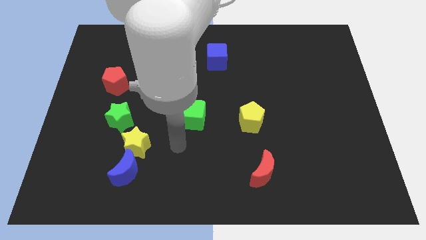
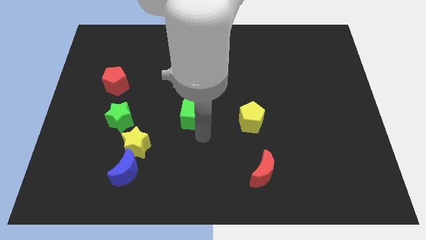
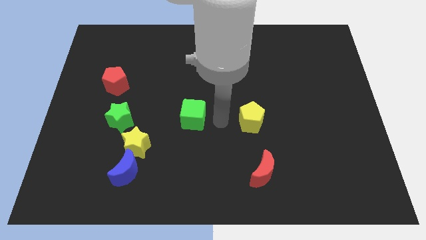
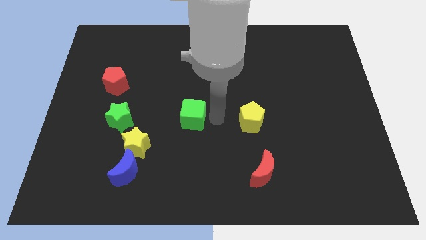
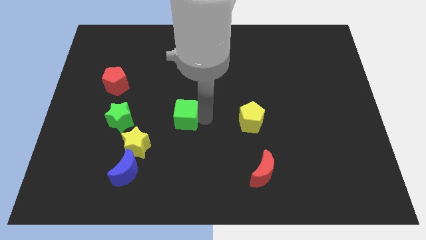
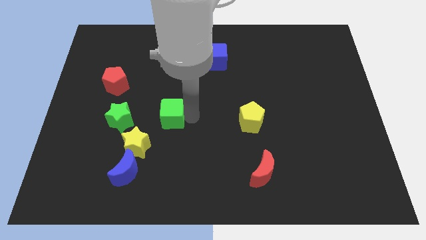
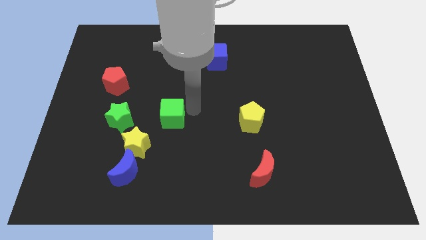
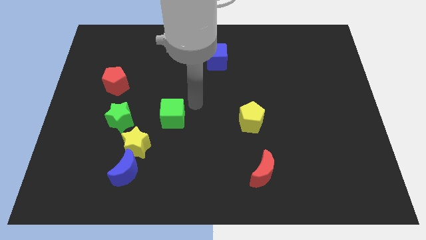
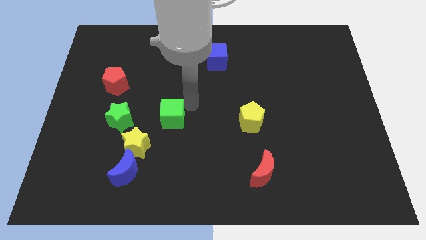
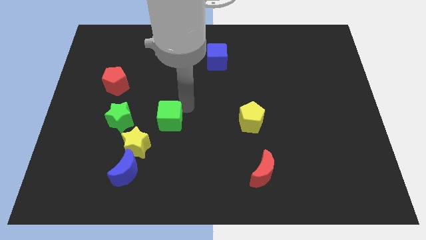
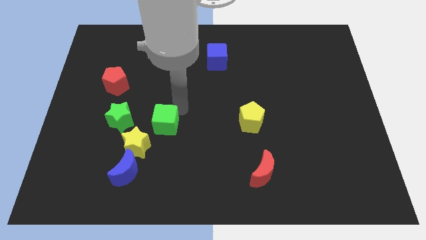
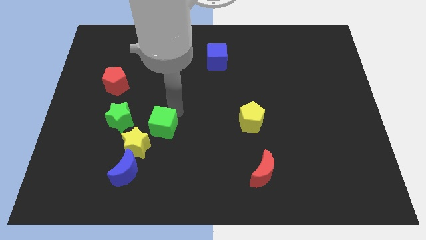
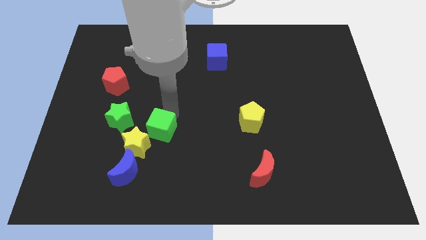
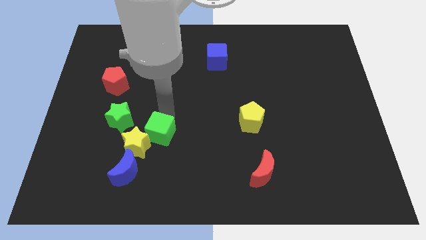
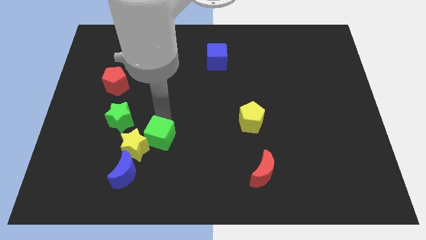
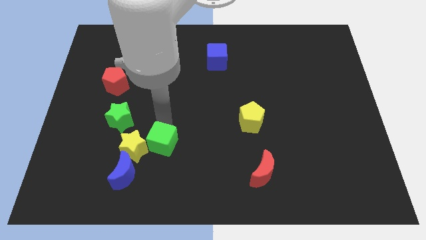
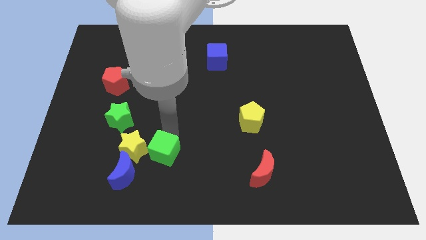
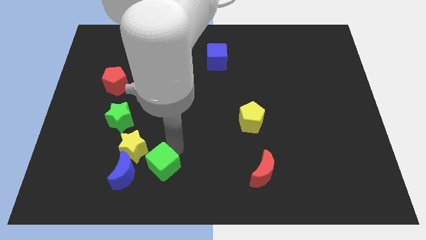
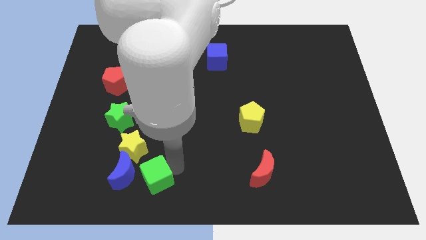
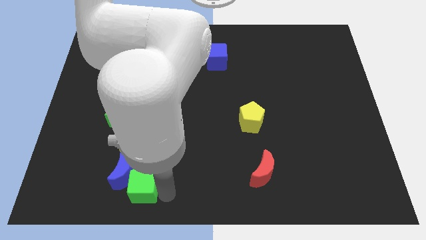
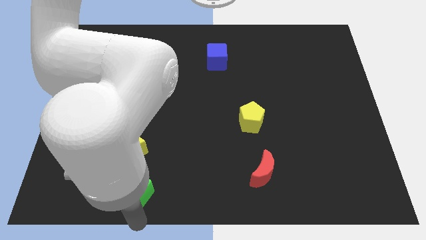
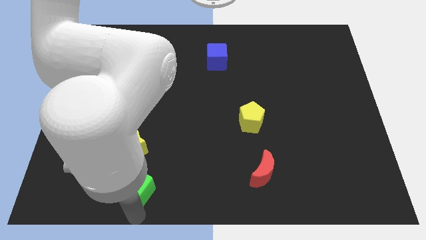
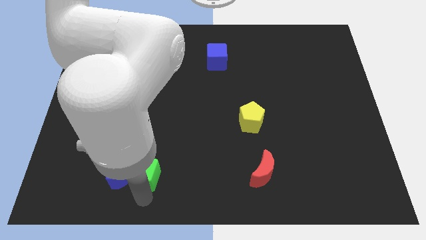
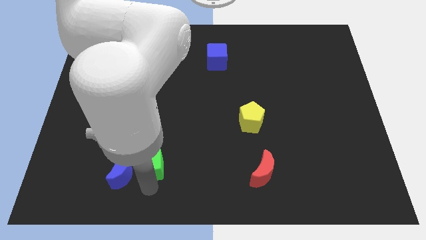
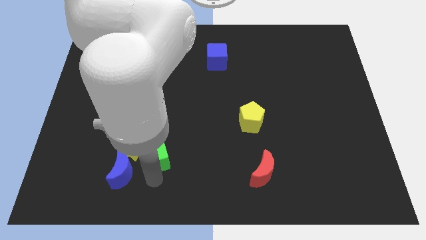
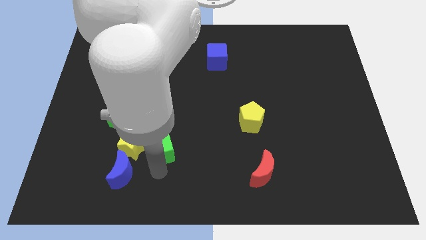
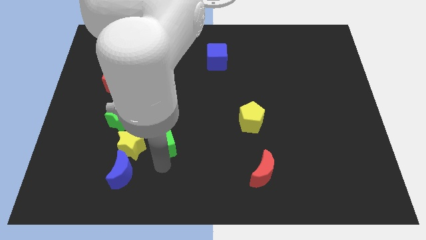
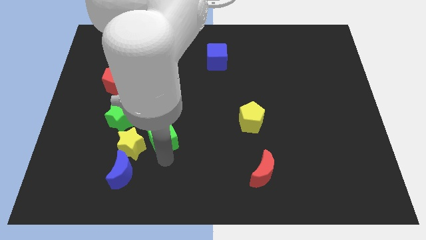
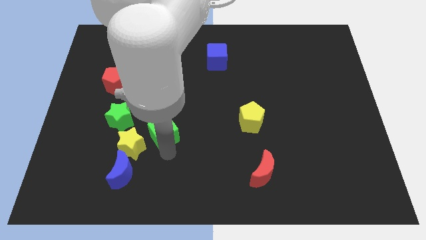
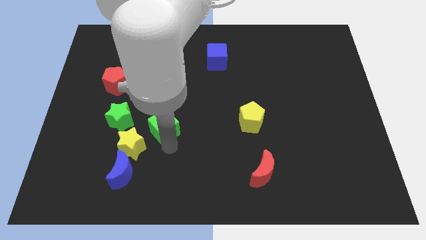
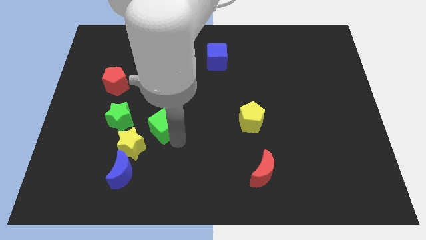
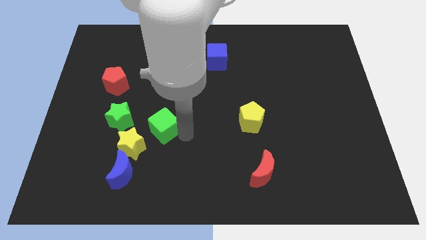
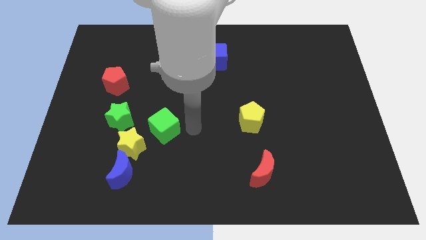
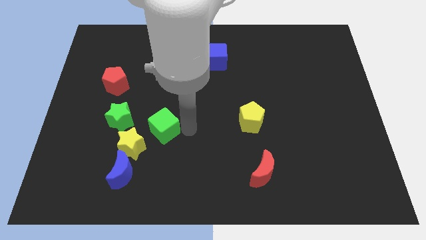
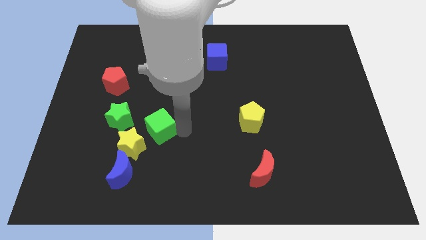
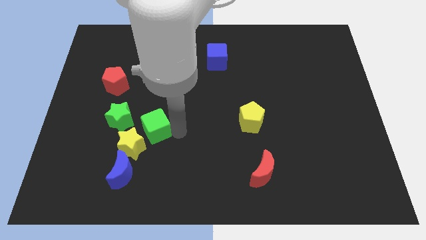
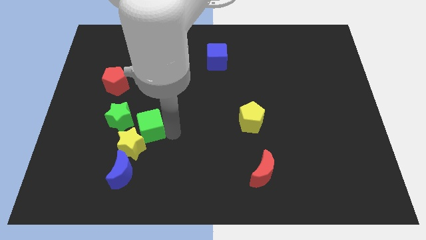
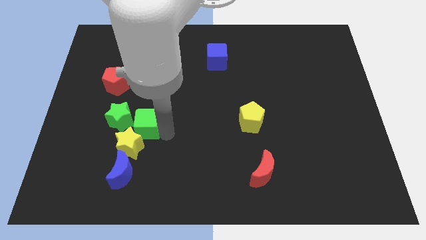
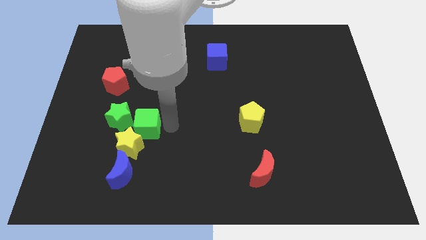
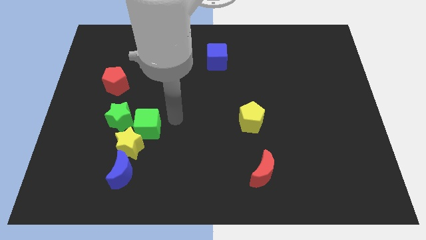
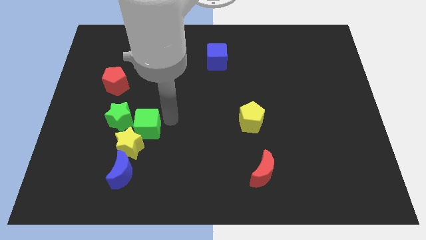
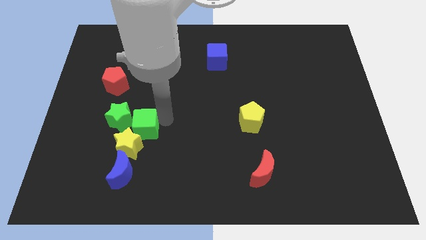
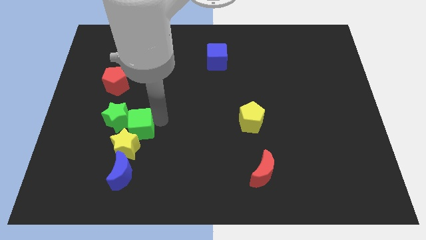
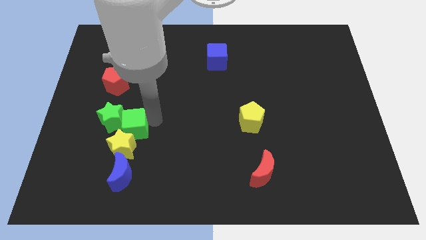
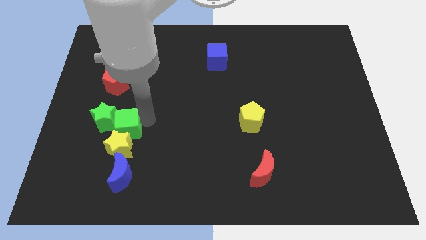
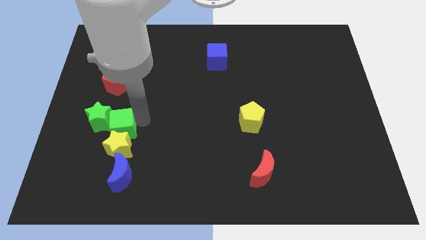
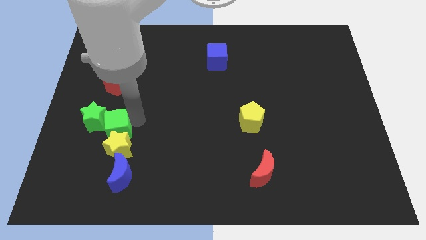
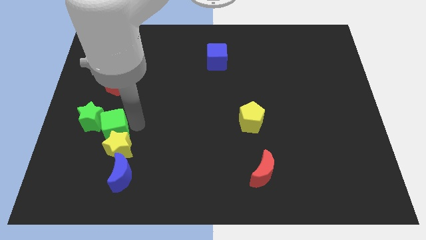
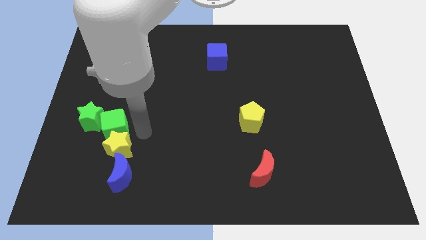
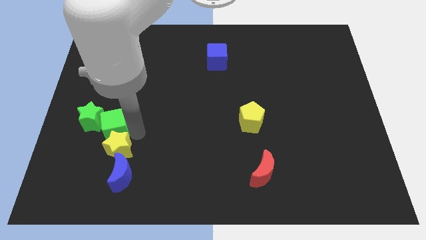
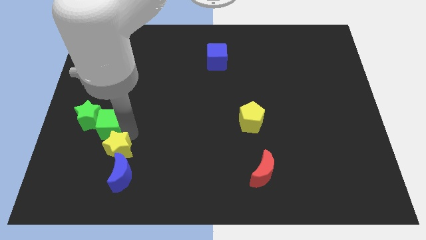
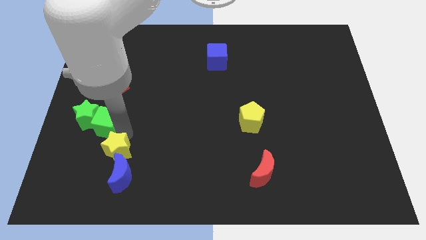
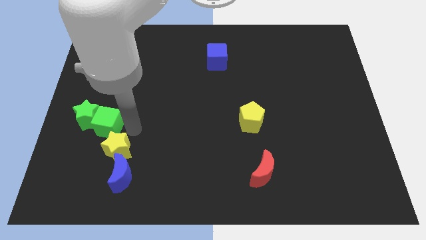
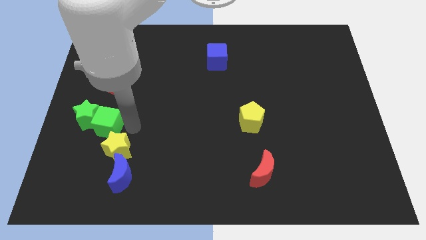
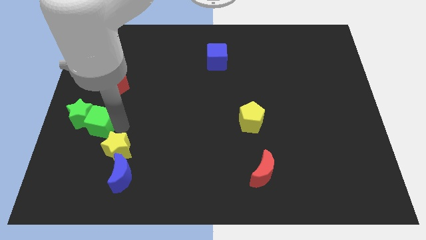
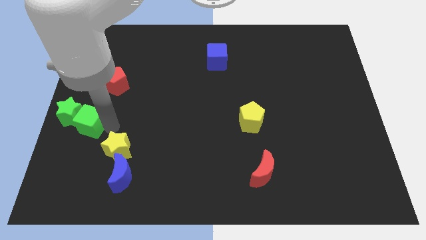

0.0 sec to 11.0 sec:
move the green cube to the center left
